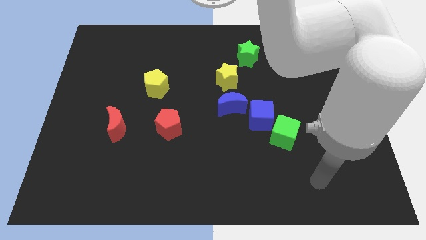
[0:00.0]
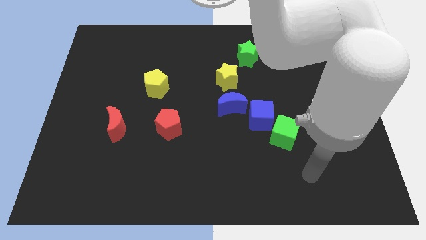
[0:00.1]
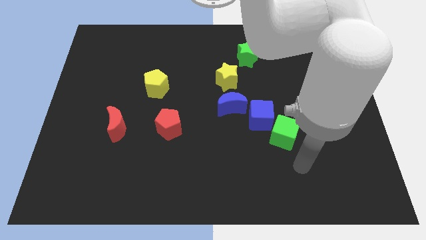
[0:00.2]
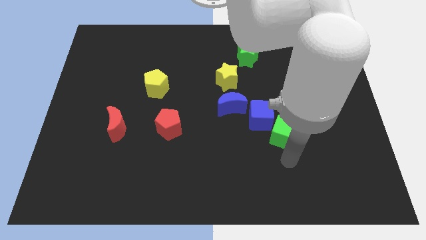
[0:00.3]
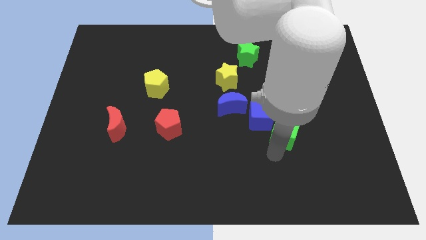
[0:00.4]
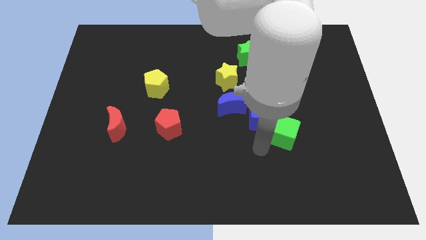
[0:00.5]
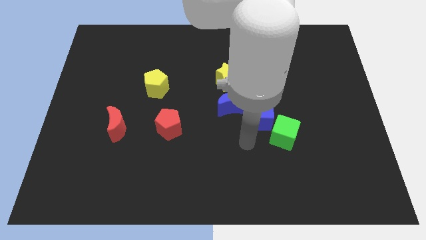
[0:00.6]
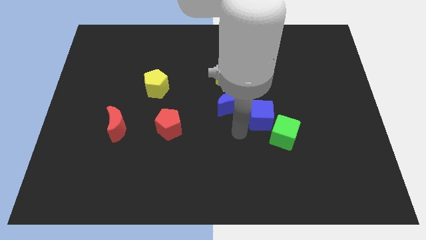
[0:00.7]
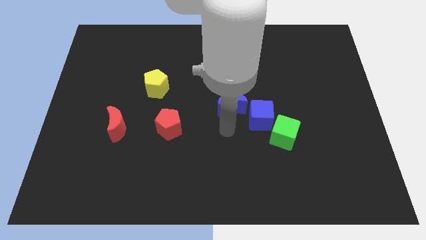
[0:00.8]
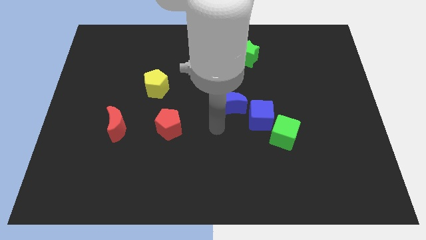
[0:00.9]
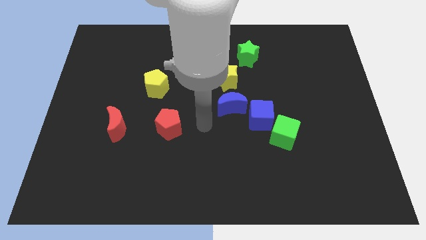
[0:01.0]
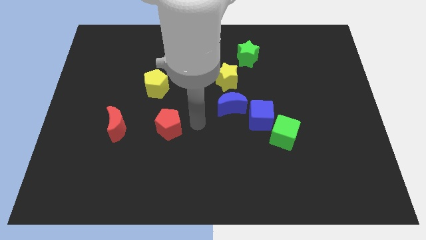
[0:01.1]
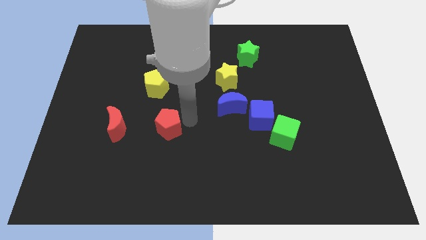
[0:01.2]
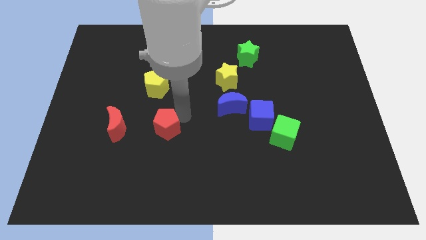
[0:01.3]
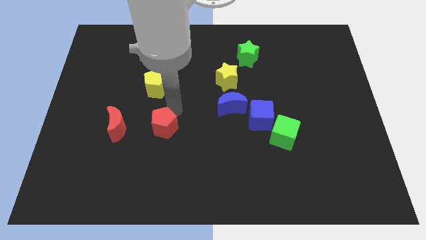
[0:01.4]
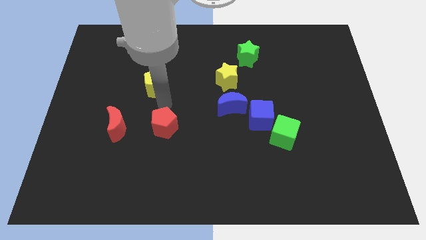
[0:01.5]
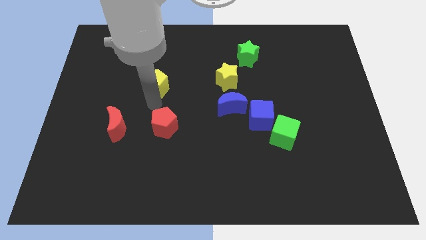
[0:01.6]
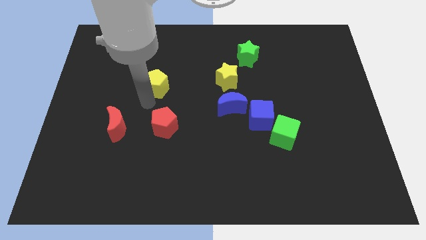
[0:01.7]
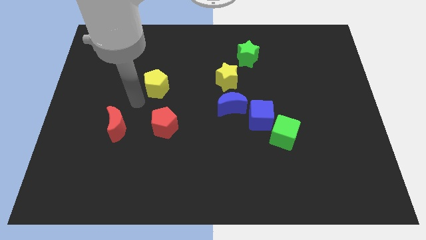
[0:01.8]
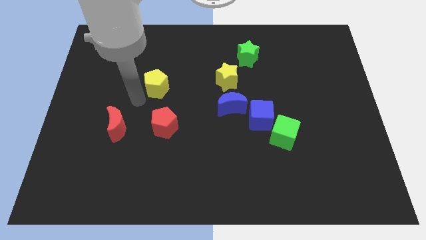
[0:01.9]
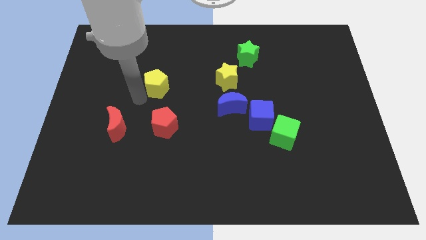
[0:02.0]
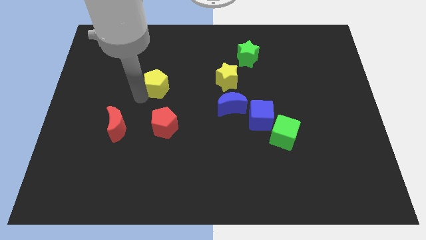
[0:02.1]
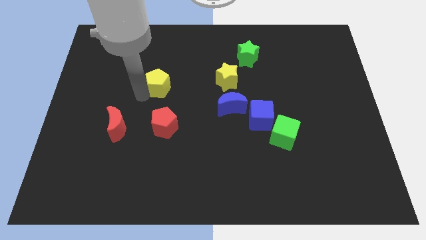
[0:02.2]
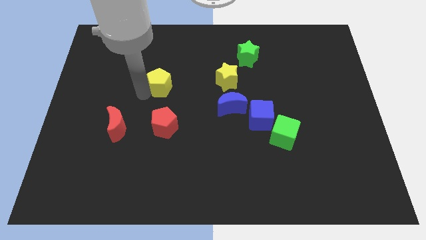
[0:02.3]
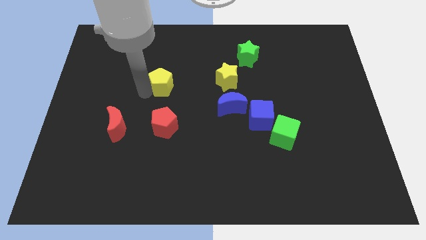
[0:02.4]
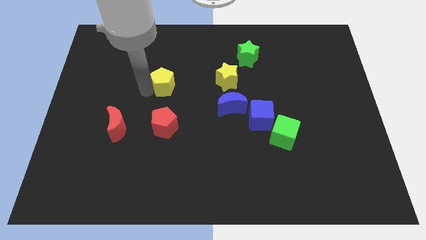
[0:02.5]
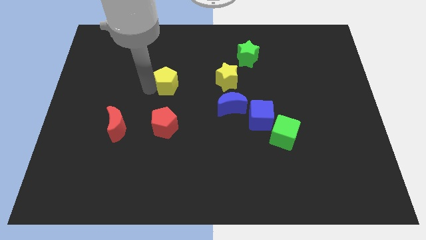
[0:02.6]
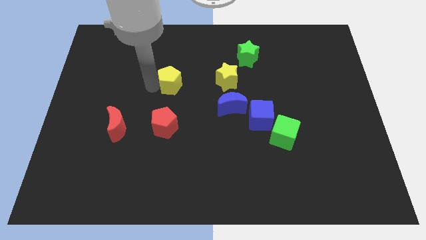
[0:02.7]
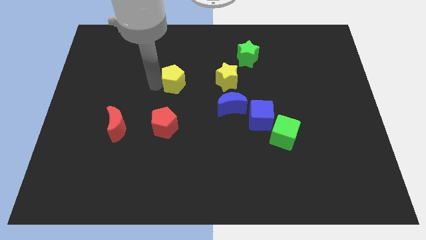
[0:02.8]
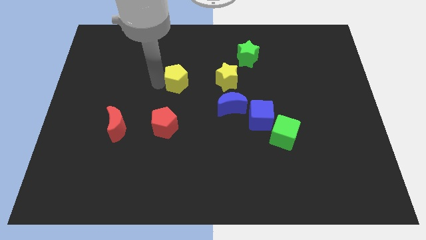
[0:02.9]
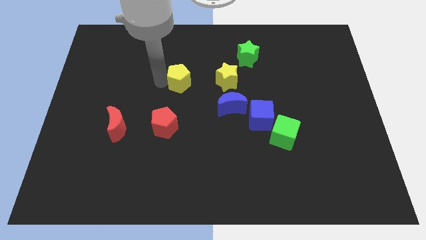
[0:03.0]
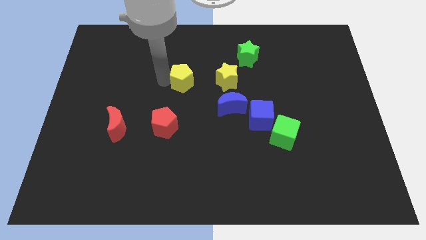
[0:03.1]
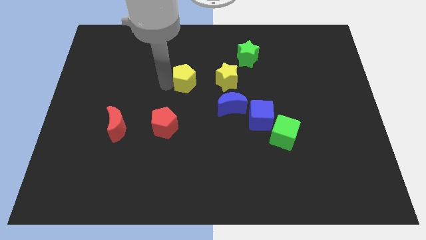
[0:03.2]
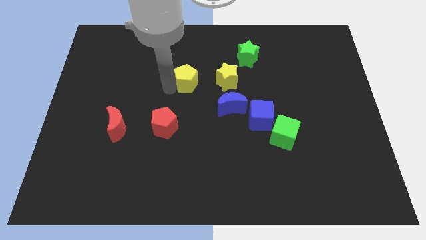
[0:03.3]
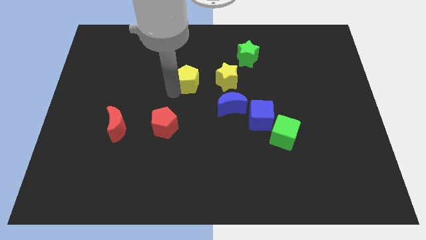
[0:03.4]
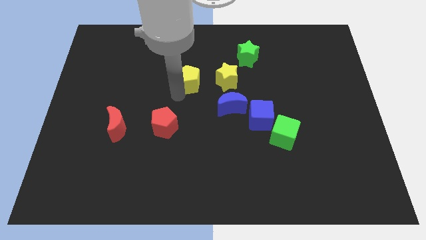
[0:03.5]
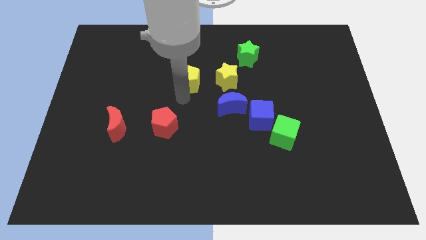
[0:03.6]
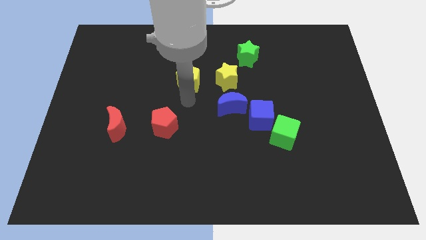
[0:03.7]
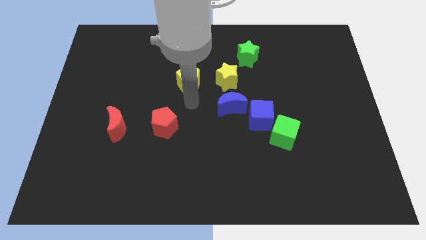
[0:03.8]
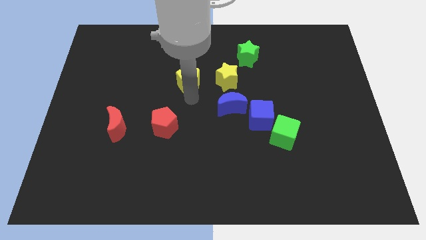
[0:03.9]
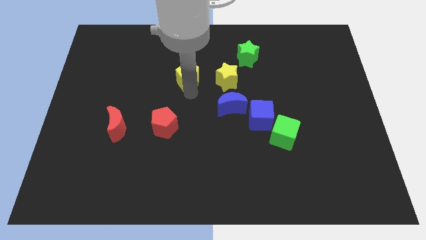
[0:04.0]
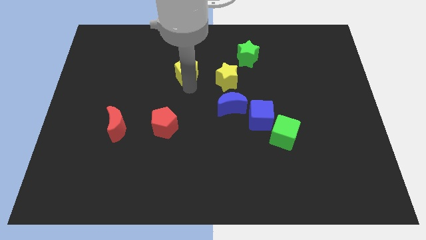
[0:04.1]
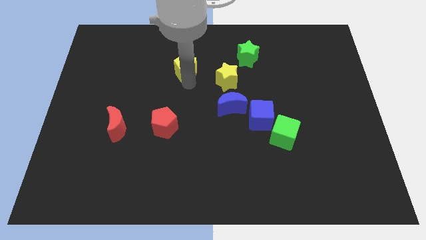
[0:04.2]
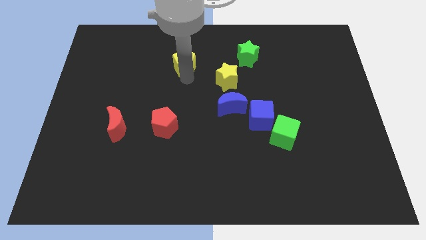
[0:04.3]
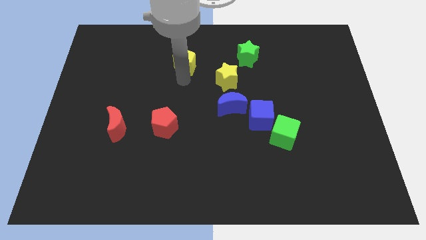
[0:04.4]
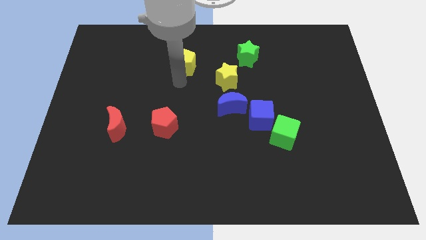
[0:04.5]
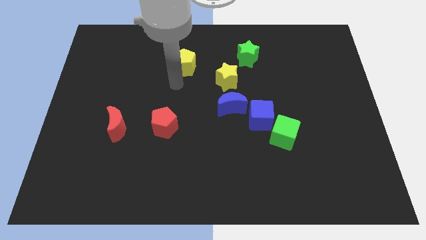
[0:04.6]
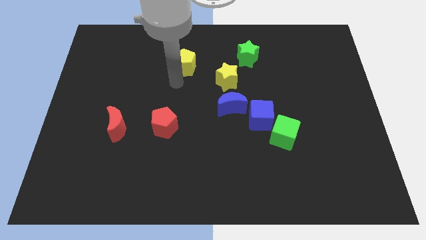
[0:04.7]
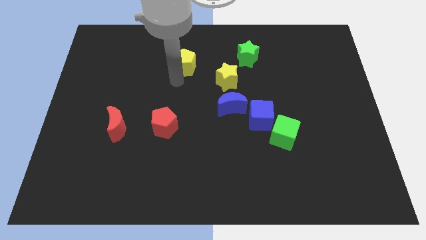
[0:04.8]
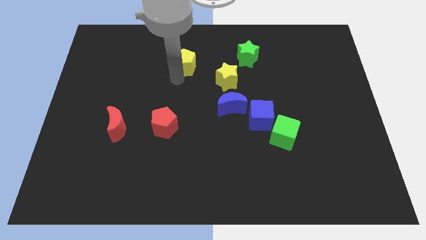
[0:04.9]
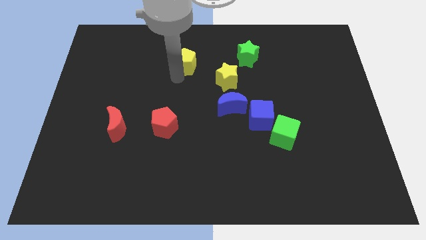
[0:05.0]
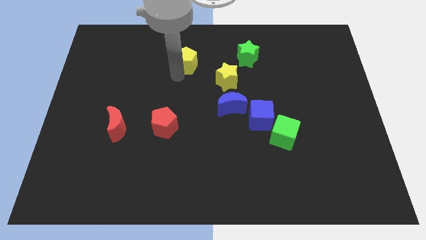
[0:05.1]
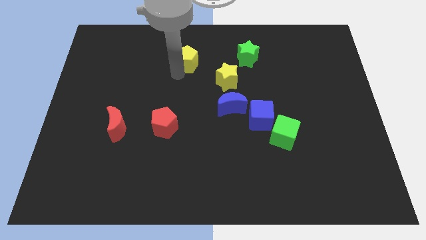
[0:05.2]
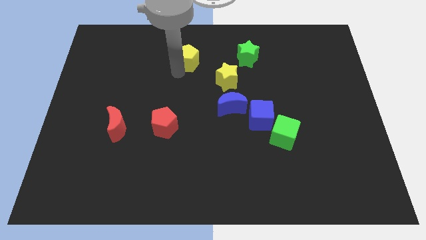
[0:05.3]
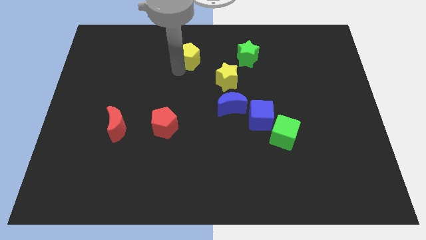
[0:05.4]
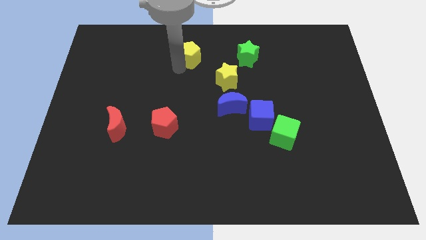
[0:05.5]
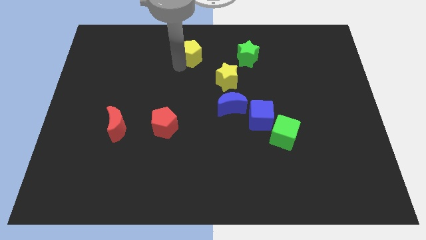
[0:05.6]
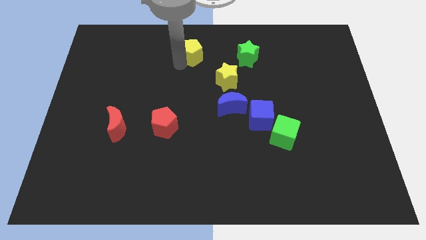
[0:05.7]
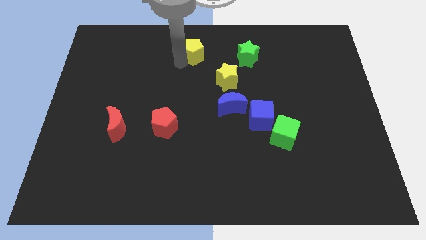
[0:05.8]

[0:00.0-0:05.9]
move the yellow pentagon to the top
